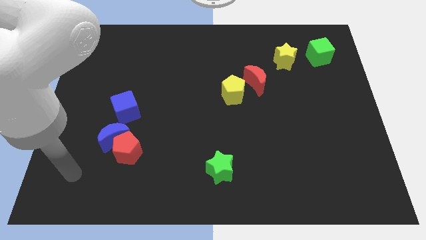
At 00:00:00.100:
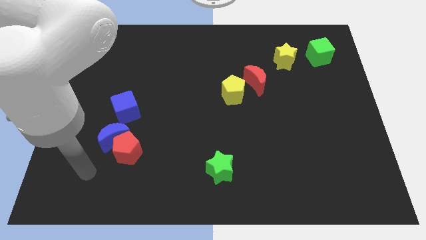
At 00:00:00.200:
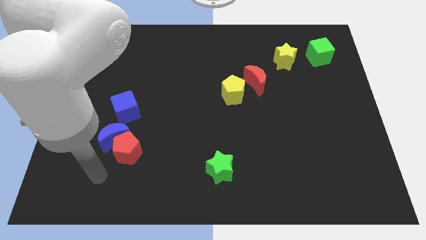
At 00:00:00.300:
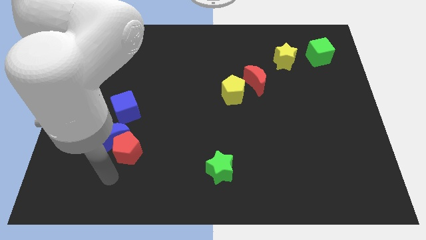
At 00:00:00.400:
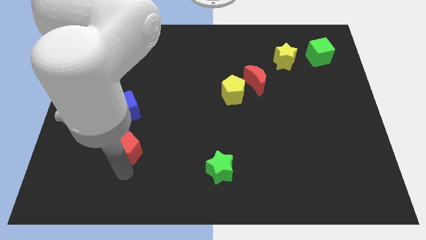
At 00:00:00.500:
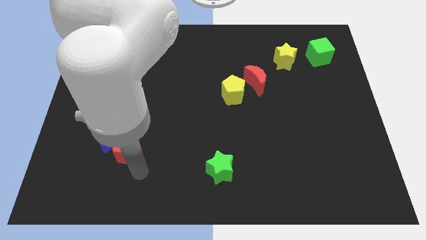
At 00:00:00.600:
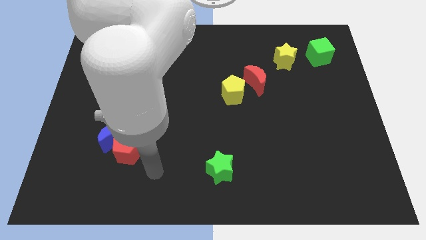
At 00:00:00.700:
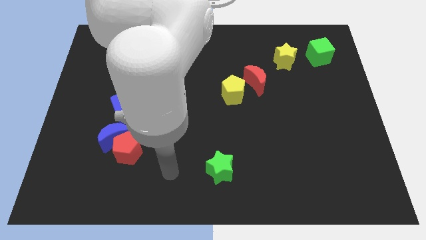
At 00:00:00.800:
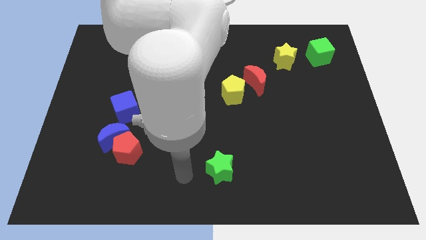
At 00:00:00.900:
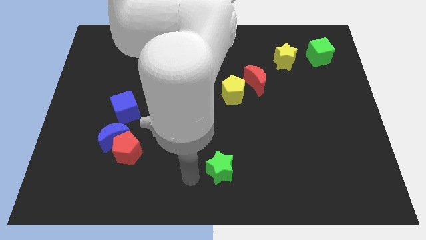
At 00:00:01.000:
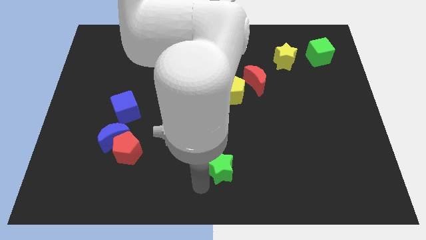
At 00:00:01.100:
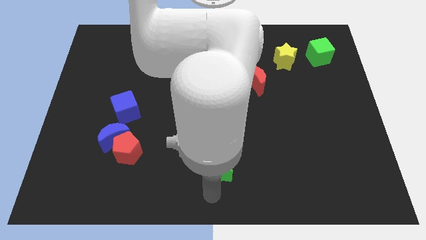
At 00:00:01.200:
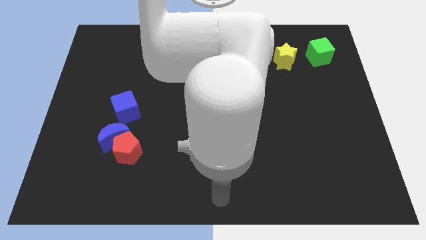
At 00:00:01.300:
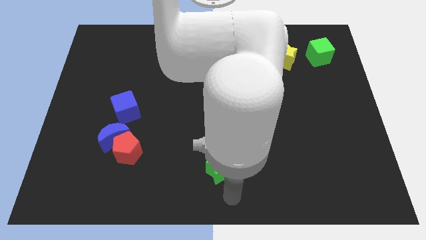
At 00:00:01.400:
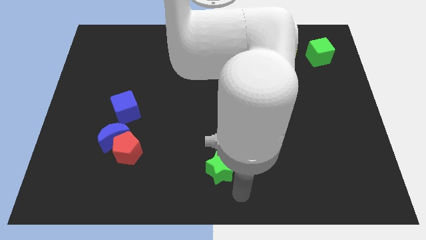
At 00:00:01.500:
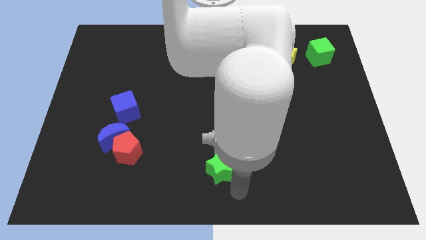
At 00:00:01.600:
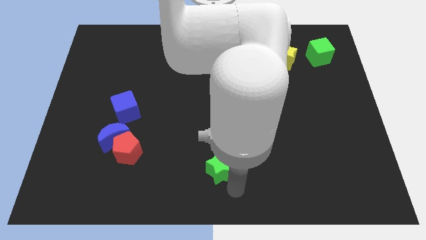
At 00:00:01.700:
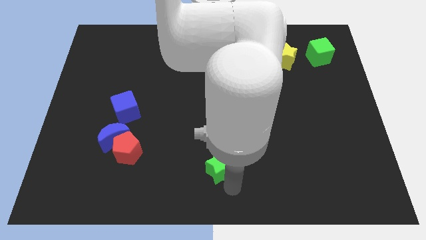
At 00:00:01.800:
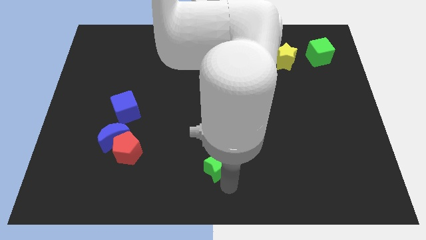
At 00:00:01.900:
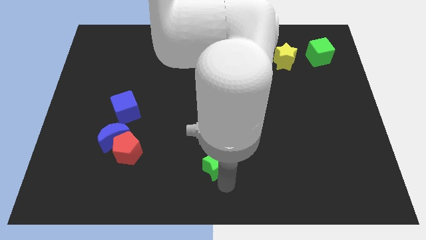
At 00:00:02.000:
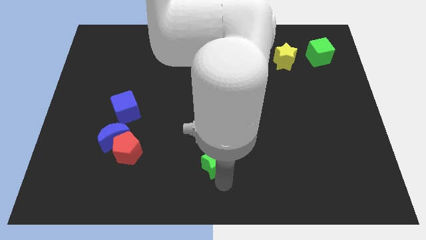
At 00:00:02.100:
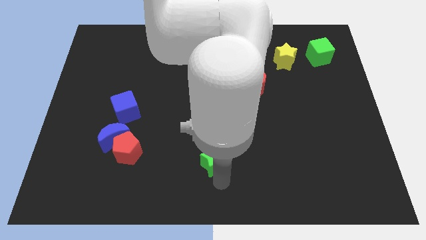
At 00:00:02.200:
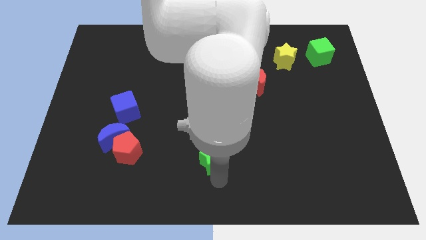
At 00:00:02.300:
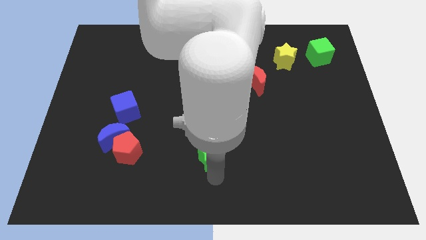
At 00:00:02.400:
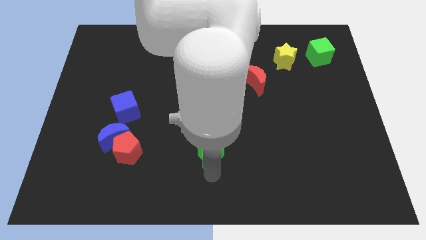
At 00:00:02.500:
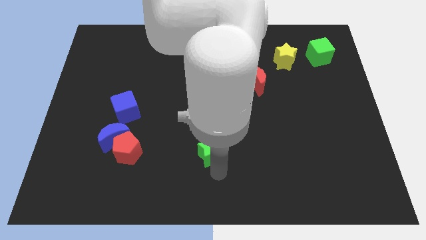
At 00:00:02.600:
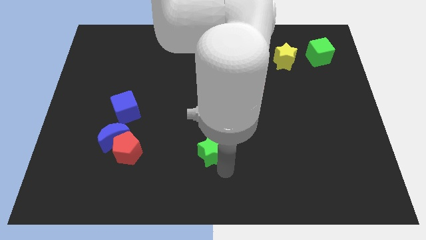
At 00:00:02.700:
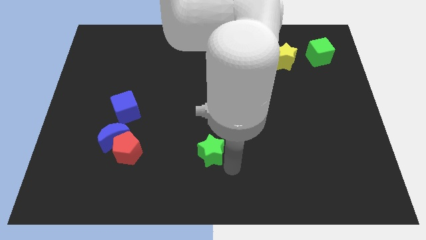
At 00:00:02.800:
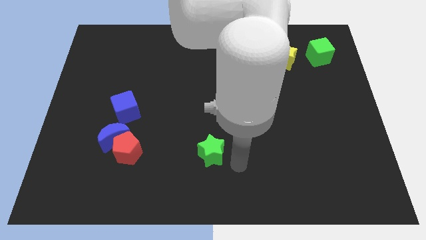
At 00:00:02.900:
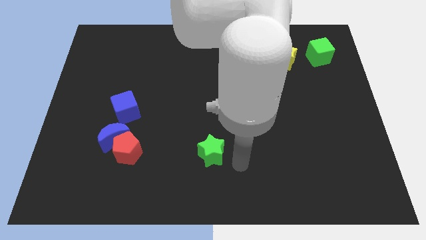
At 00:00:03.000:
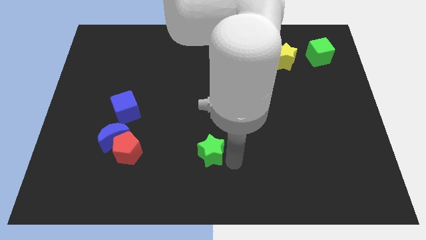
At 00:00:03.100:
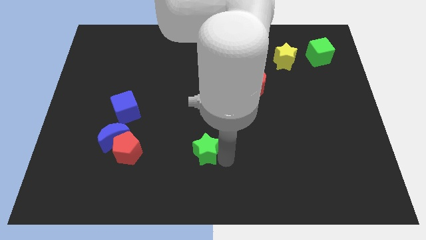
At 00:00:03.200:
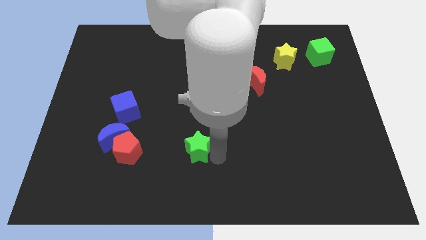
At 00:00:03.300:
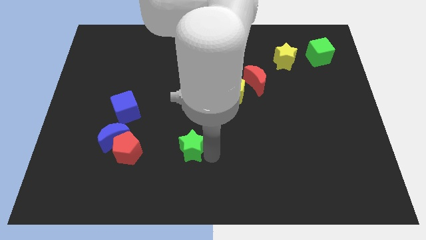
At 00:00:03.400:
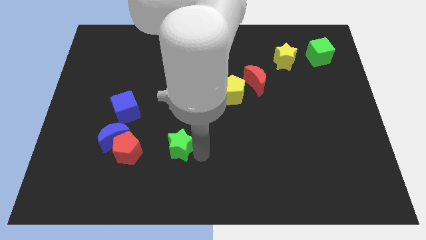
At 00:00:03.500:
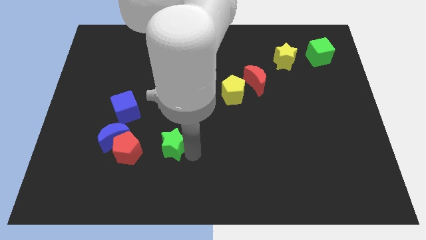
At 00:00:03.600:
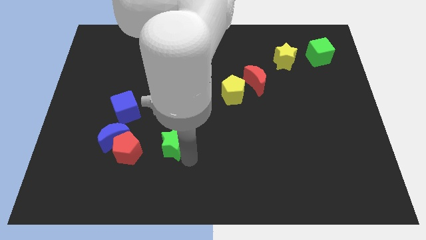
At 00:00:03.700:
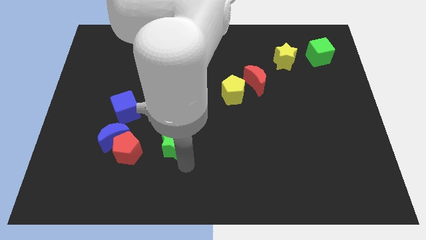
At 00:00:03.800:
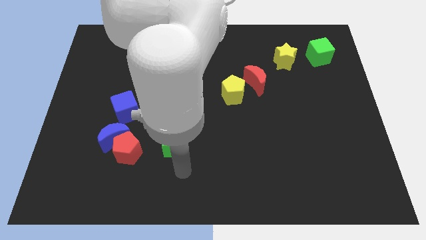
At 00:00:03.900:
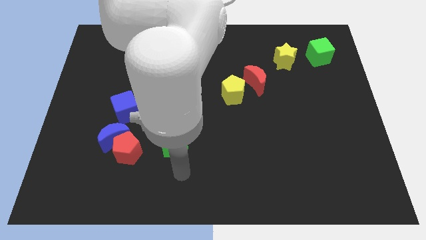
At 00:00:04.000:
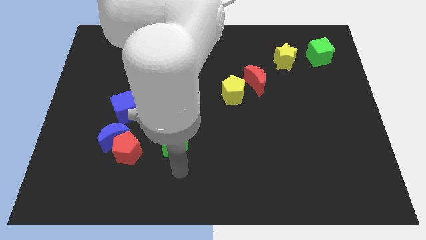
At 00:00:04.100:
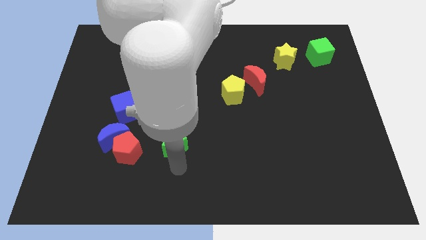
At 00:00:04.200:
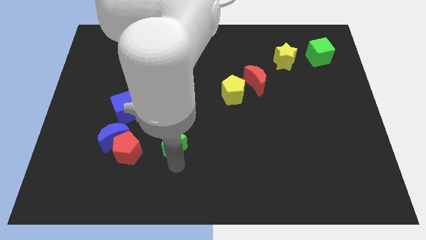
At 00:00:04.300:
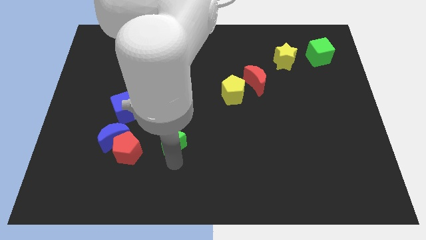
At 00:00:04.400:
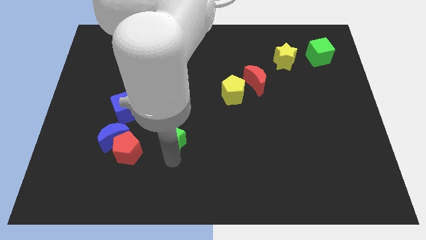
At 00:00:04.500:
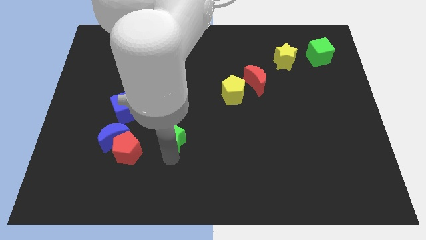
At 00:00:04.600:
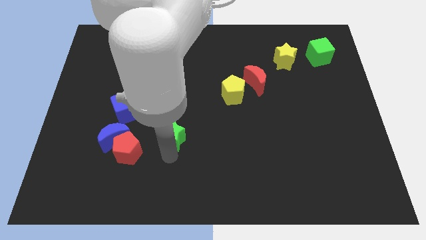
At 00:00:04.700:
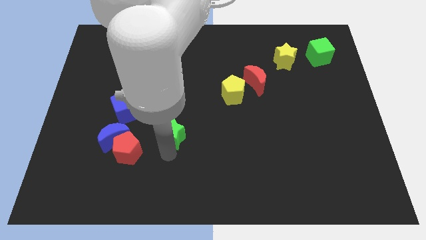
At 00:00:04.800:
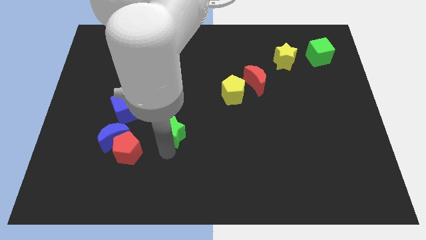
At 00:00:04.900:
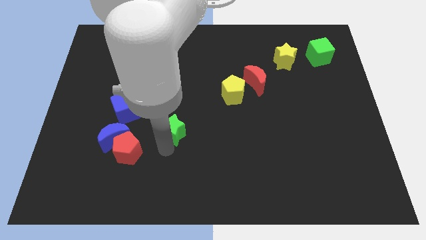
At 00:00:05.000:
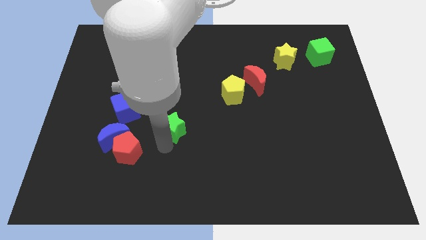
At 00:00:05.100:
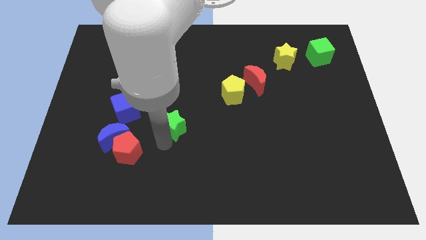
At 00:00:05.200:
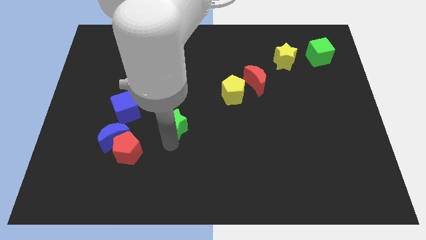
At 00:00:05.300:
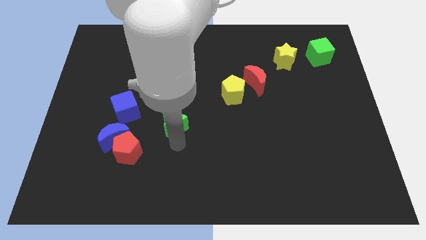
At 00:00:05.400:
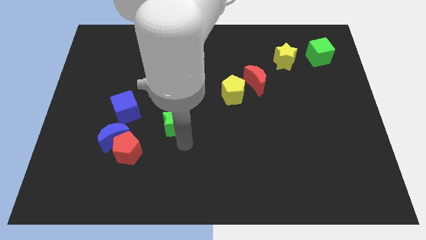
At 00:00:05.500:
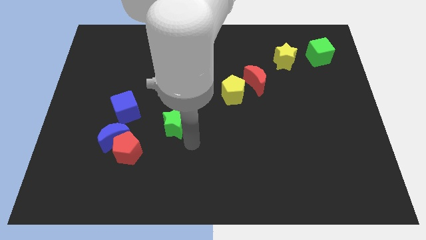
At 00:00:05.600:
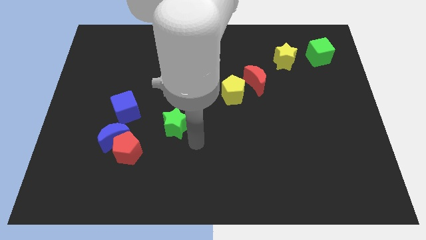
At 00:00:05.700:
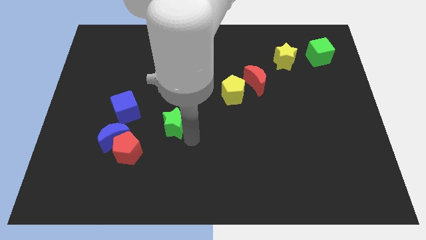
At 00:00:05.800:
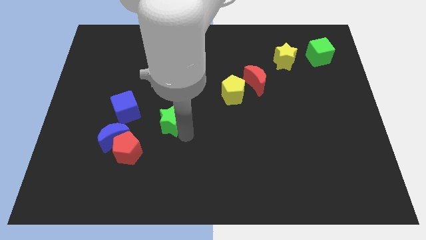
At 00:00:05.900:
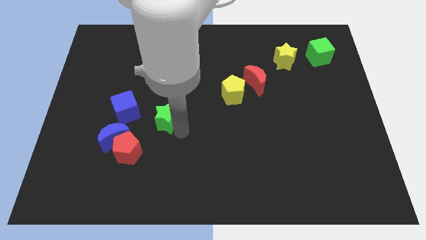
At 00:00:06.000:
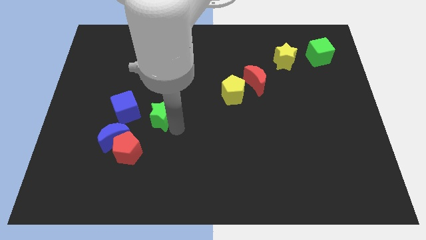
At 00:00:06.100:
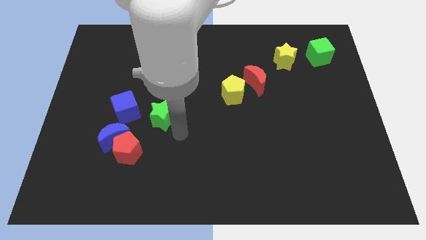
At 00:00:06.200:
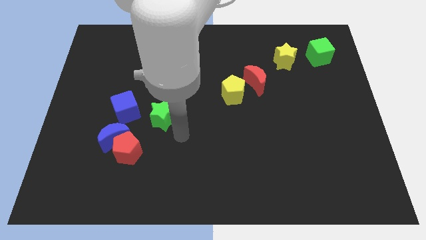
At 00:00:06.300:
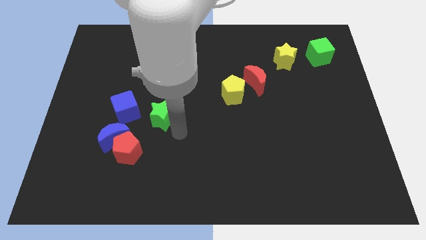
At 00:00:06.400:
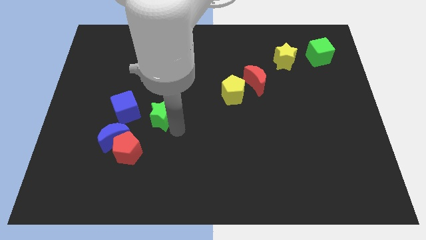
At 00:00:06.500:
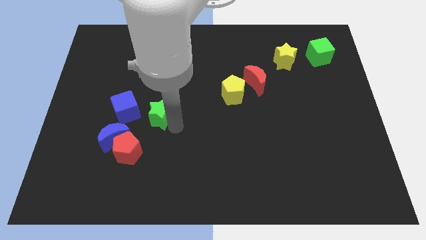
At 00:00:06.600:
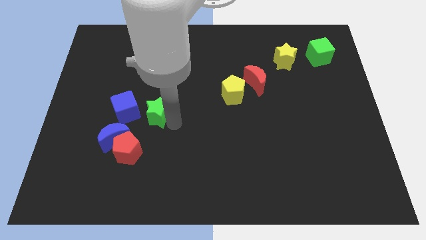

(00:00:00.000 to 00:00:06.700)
move the green star upwards and then left

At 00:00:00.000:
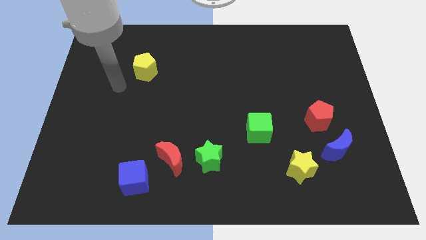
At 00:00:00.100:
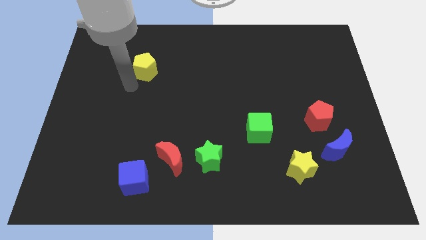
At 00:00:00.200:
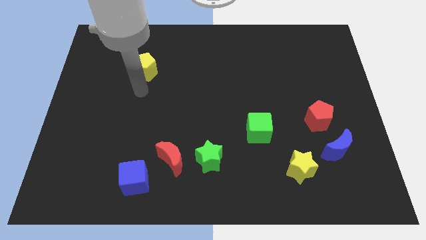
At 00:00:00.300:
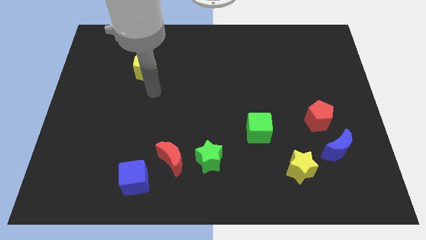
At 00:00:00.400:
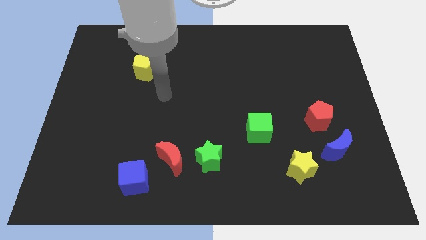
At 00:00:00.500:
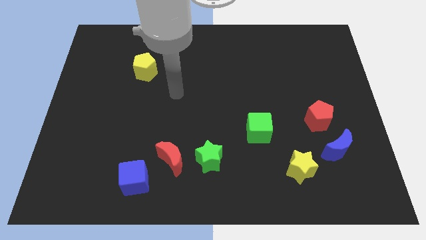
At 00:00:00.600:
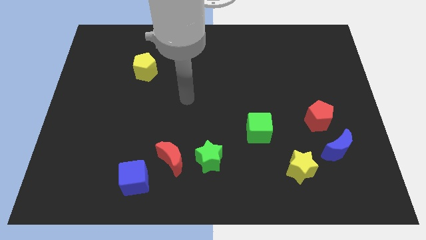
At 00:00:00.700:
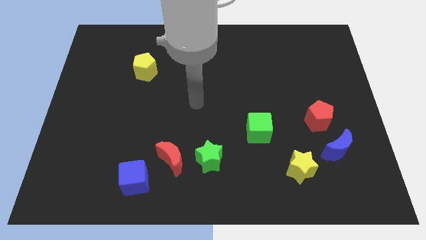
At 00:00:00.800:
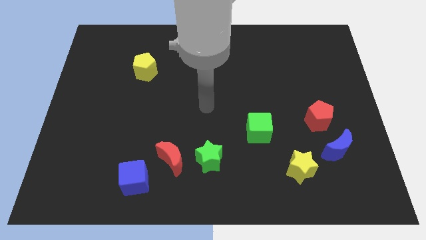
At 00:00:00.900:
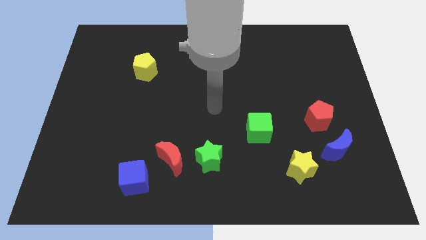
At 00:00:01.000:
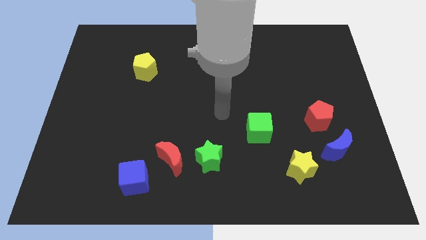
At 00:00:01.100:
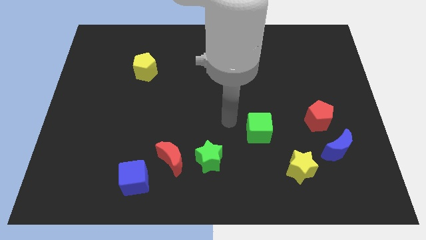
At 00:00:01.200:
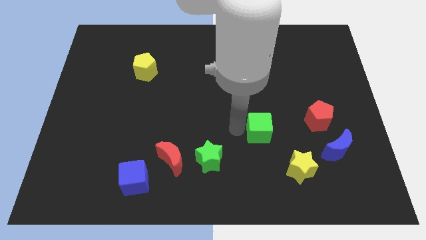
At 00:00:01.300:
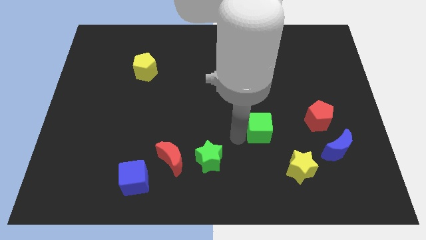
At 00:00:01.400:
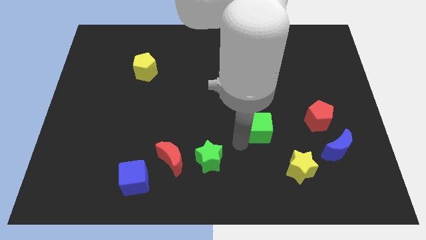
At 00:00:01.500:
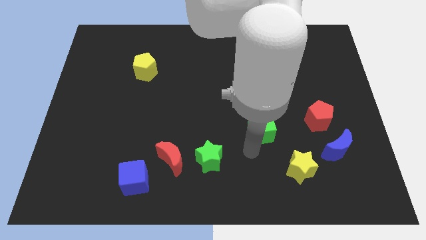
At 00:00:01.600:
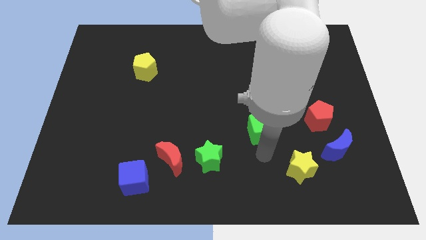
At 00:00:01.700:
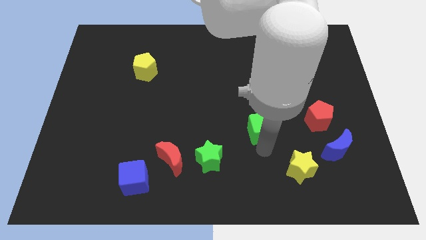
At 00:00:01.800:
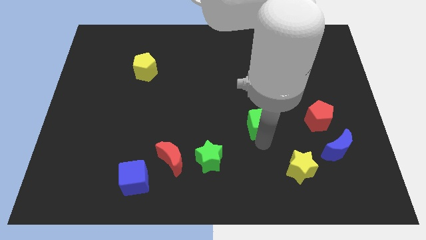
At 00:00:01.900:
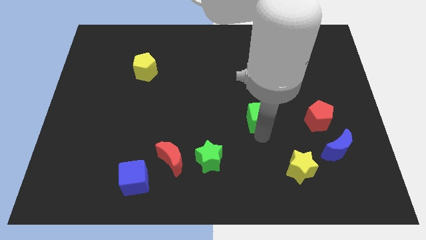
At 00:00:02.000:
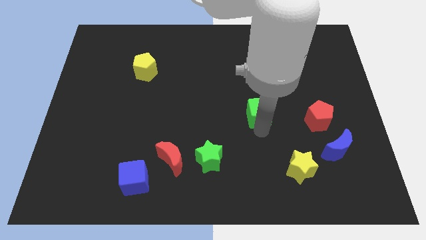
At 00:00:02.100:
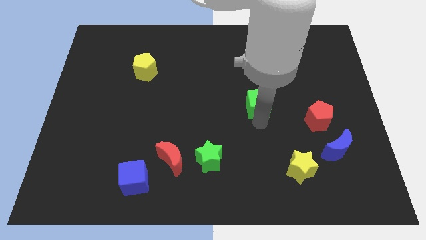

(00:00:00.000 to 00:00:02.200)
slightly push the green cube upwards
